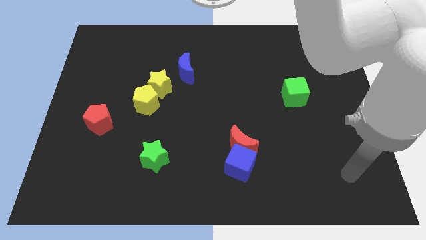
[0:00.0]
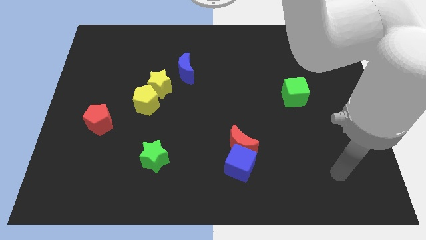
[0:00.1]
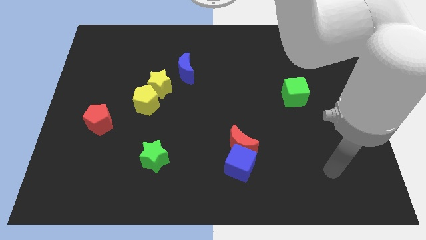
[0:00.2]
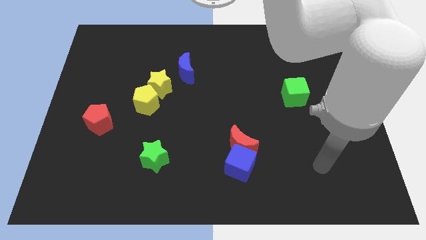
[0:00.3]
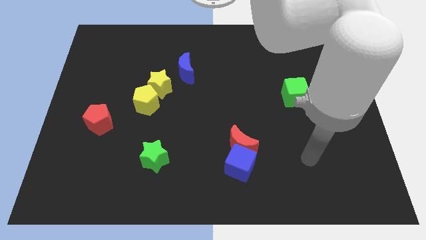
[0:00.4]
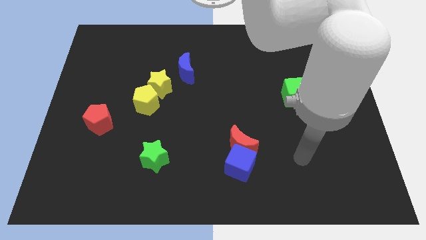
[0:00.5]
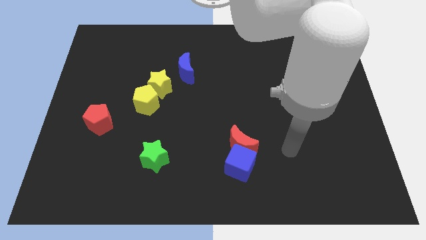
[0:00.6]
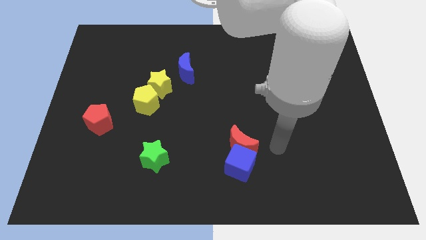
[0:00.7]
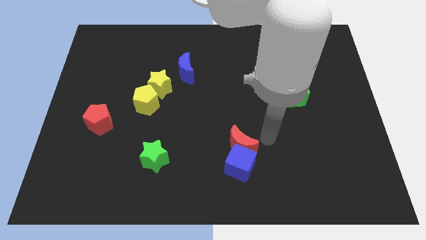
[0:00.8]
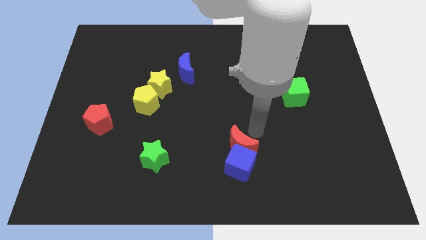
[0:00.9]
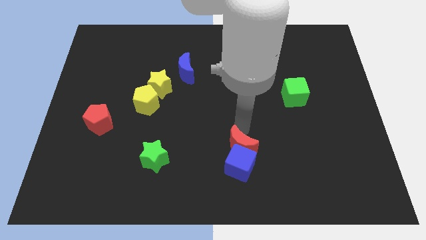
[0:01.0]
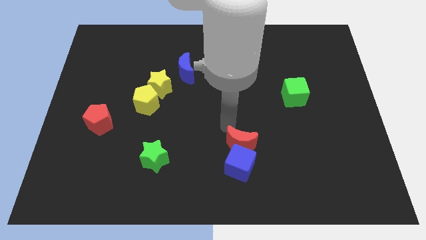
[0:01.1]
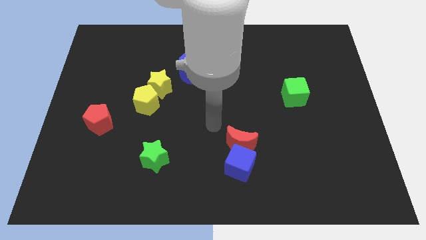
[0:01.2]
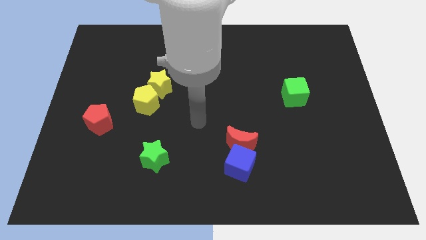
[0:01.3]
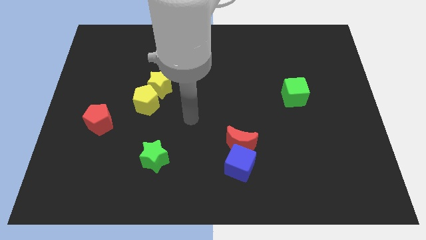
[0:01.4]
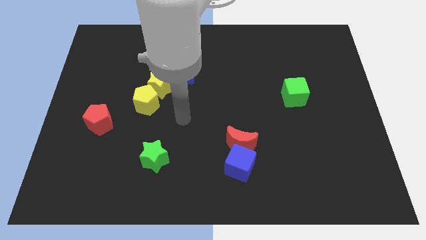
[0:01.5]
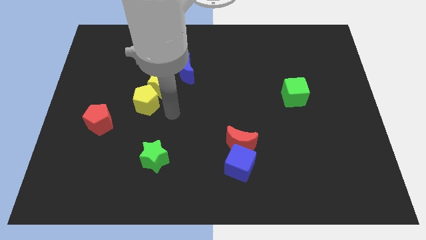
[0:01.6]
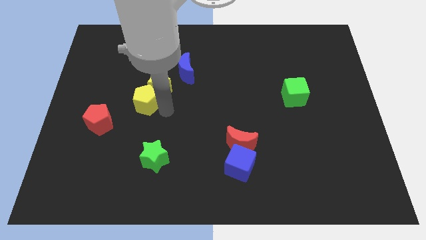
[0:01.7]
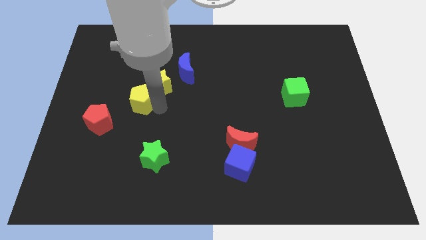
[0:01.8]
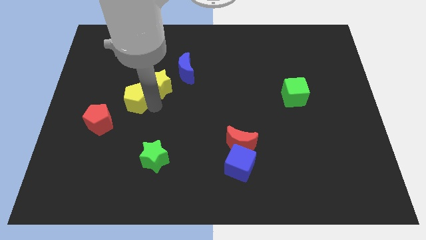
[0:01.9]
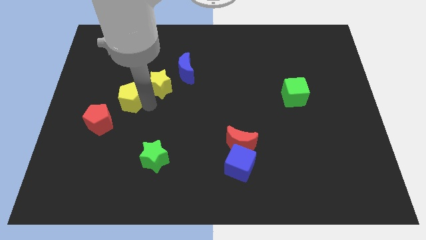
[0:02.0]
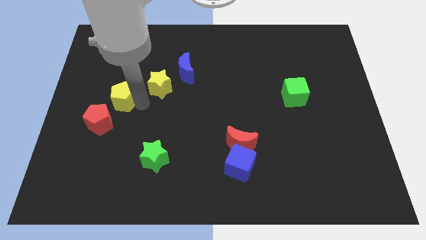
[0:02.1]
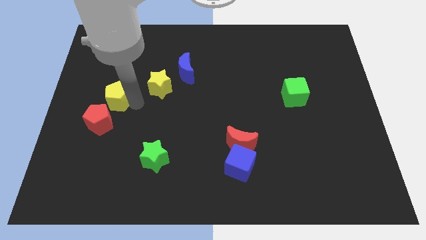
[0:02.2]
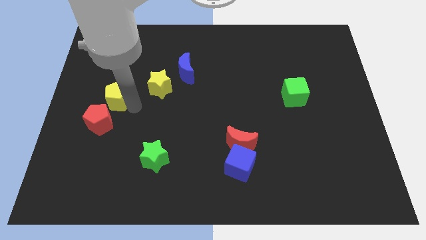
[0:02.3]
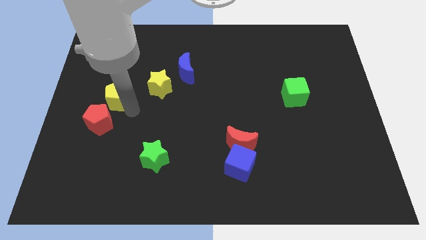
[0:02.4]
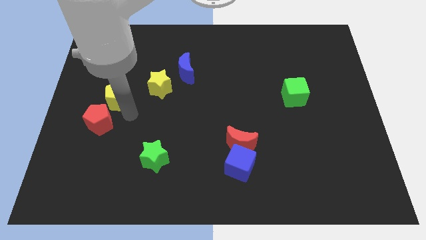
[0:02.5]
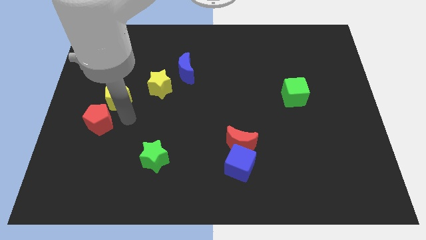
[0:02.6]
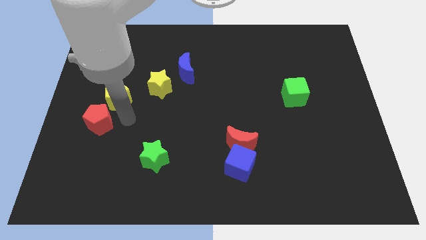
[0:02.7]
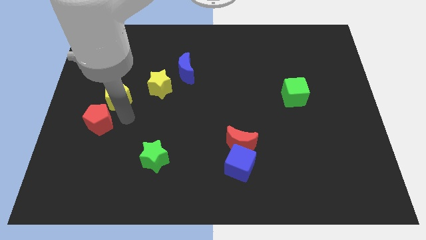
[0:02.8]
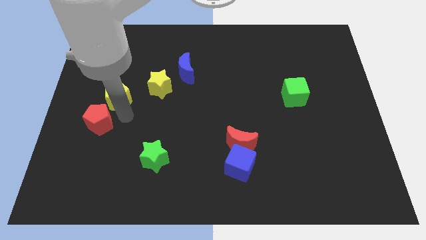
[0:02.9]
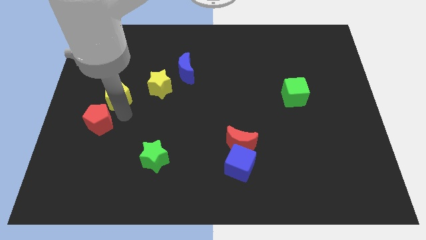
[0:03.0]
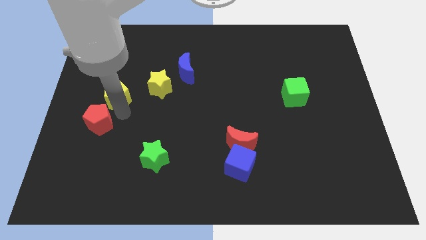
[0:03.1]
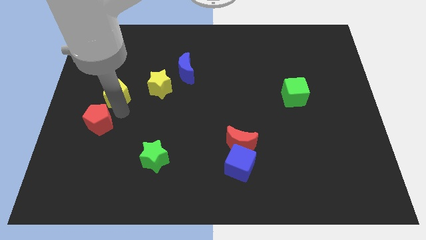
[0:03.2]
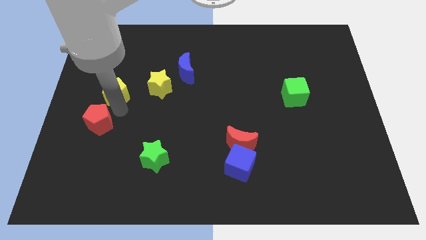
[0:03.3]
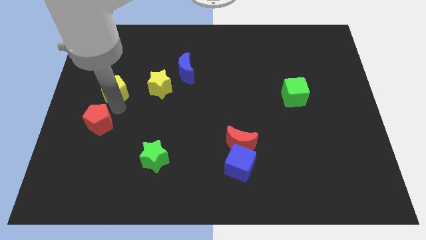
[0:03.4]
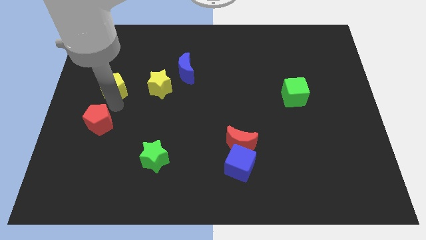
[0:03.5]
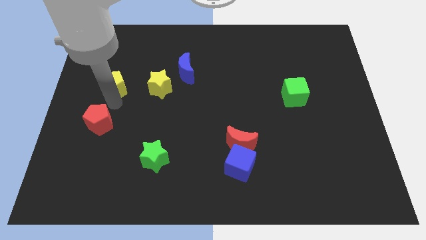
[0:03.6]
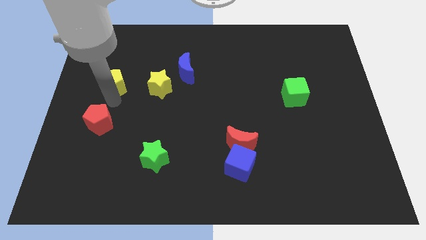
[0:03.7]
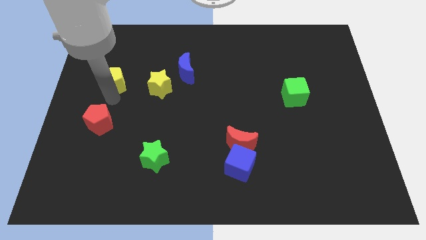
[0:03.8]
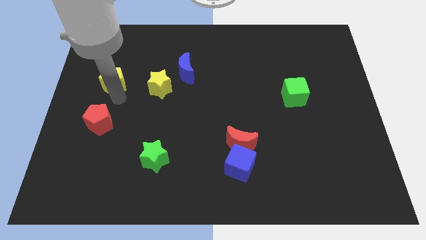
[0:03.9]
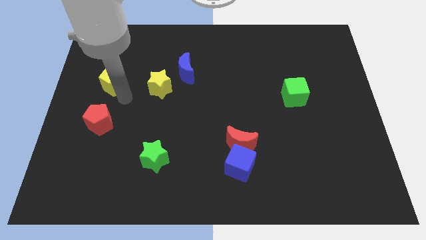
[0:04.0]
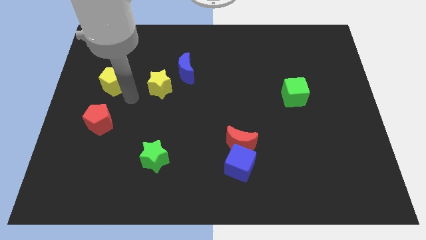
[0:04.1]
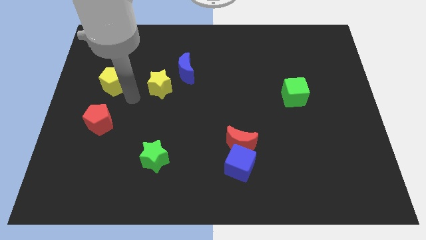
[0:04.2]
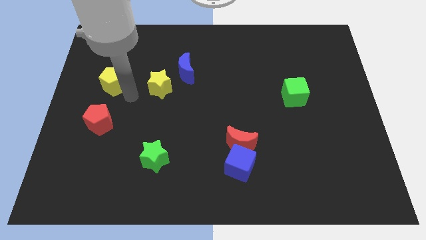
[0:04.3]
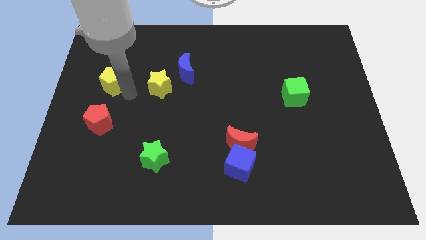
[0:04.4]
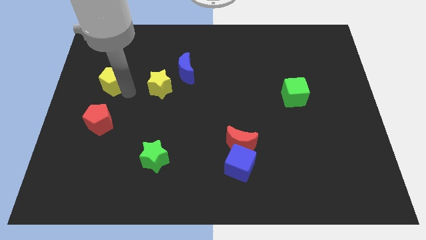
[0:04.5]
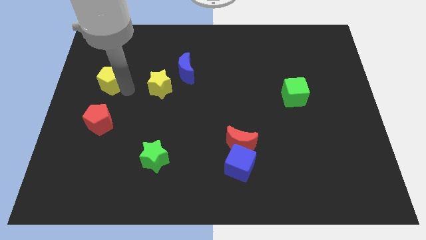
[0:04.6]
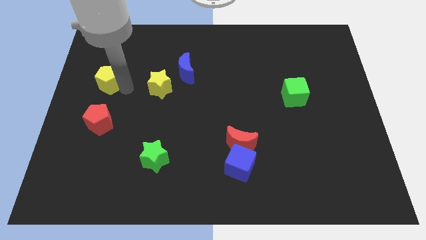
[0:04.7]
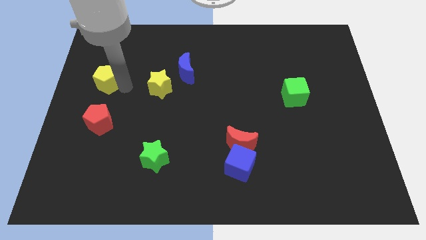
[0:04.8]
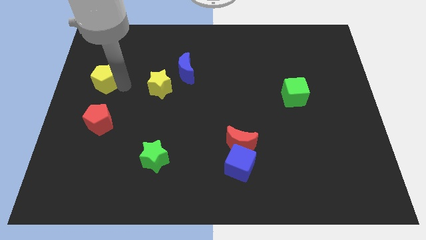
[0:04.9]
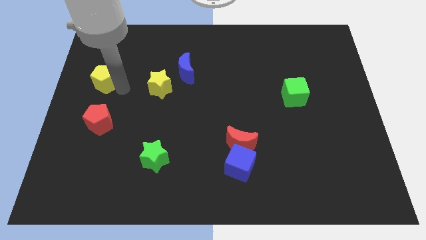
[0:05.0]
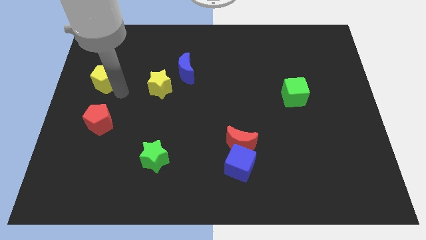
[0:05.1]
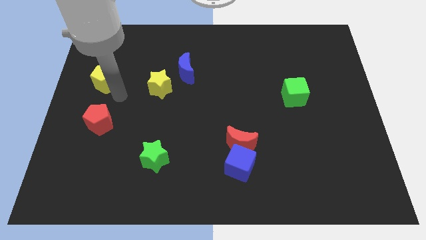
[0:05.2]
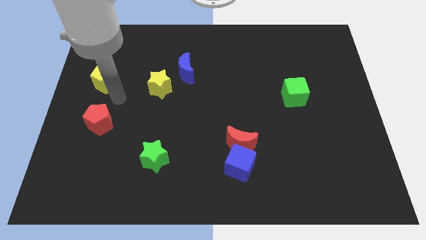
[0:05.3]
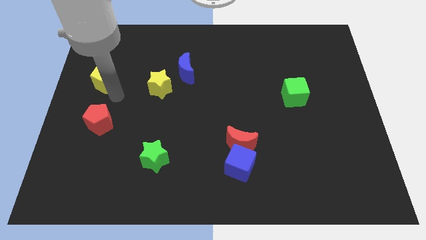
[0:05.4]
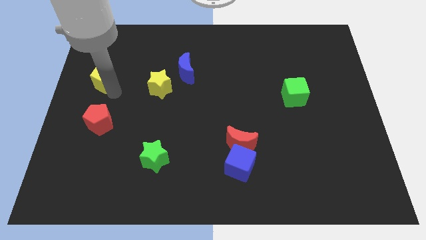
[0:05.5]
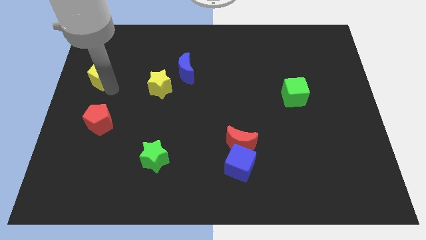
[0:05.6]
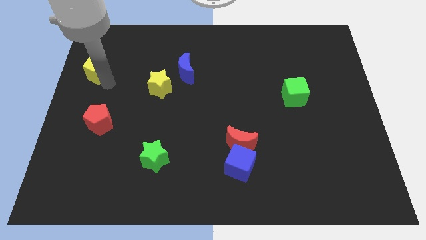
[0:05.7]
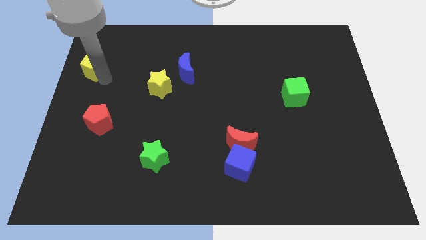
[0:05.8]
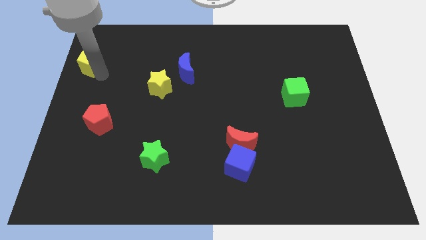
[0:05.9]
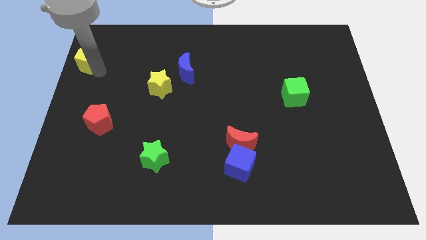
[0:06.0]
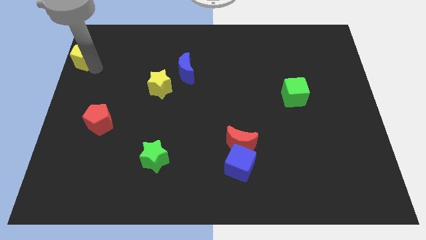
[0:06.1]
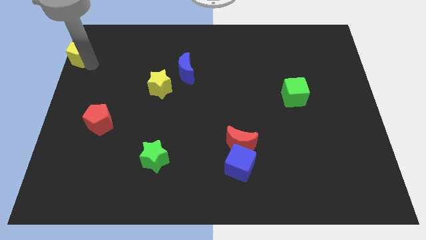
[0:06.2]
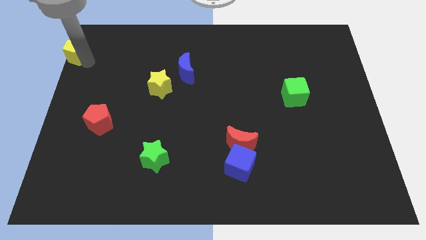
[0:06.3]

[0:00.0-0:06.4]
slide the yellow pentagon to the top left of the board
